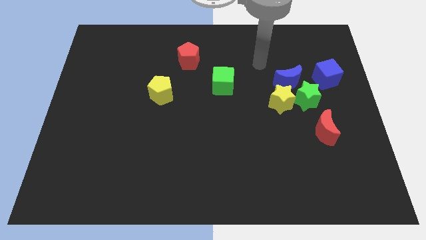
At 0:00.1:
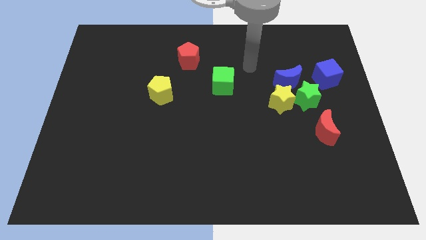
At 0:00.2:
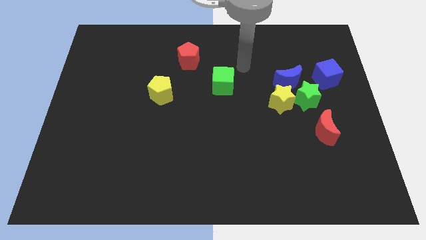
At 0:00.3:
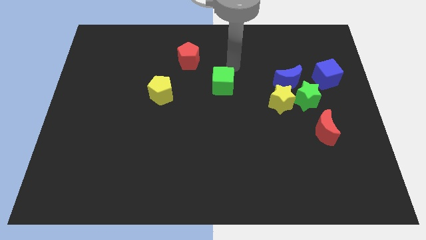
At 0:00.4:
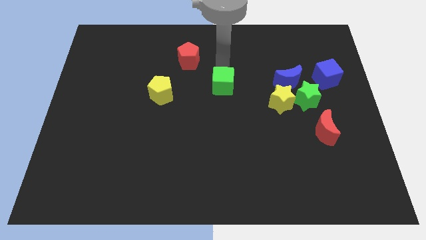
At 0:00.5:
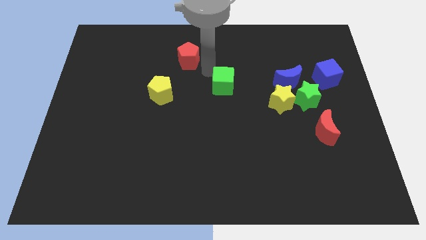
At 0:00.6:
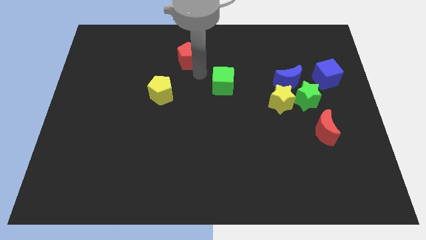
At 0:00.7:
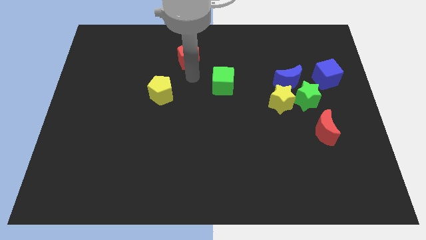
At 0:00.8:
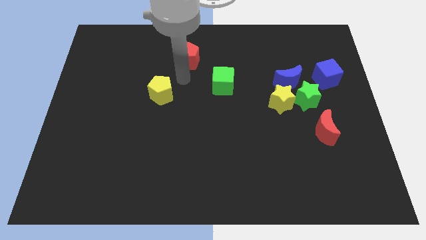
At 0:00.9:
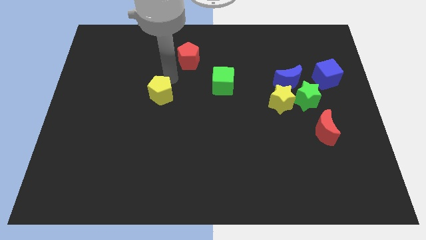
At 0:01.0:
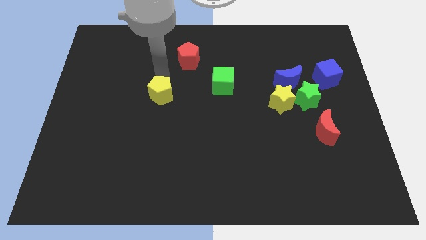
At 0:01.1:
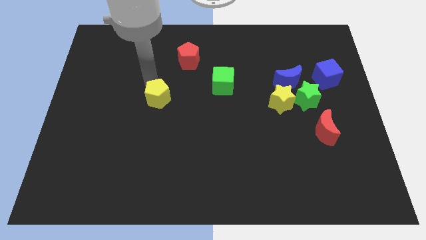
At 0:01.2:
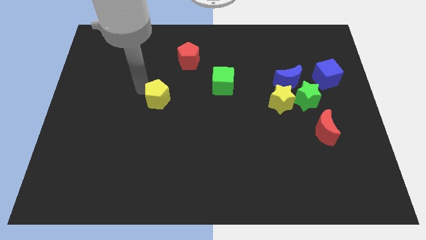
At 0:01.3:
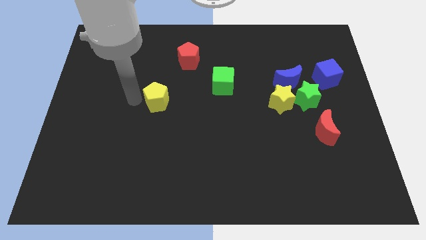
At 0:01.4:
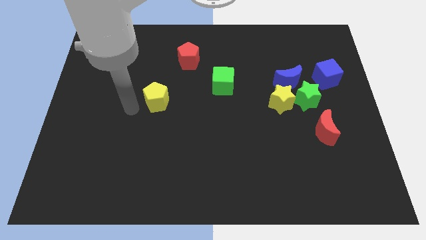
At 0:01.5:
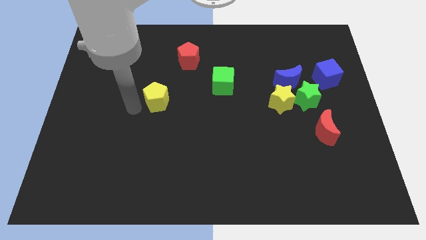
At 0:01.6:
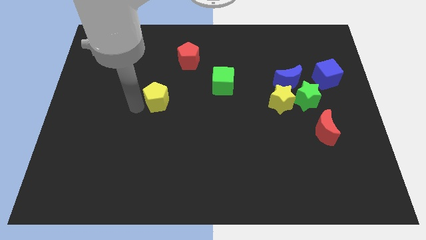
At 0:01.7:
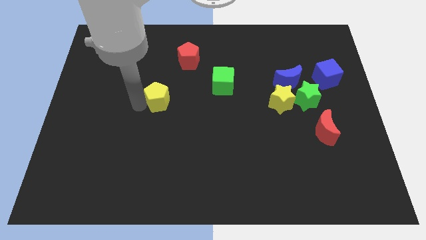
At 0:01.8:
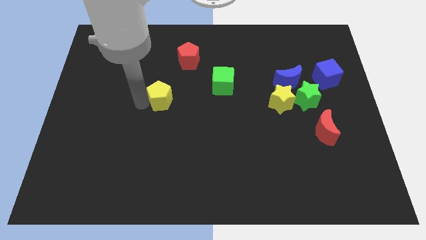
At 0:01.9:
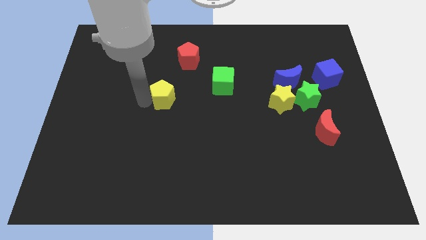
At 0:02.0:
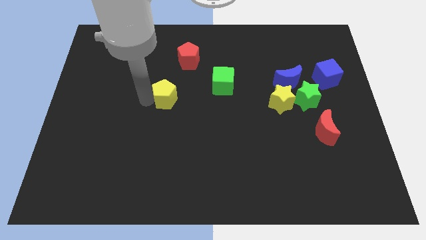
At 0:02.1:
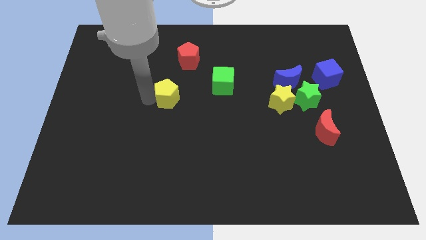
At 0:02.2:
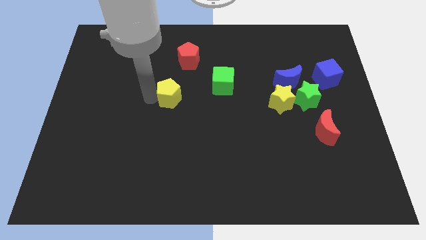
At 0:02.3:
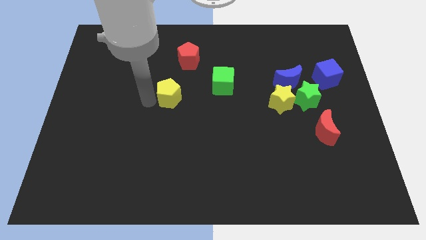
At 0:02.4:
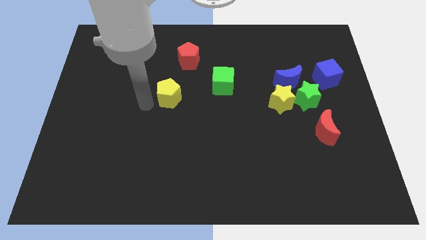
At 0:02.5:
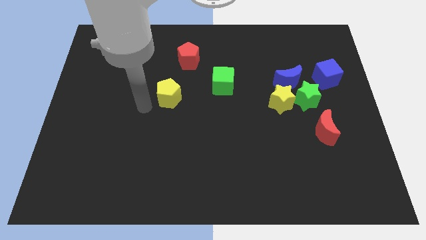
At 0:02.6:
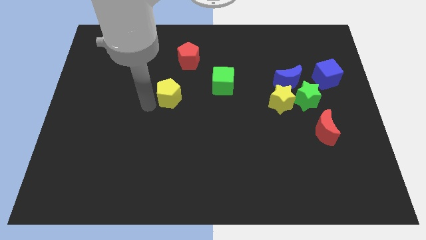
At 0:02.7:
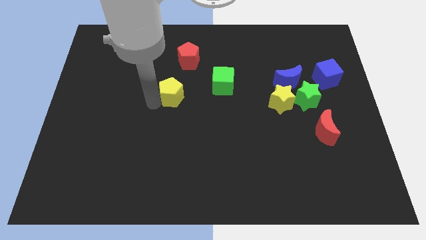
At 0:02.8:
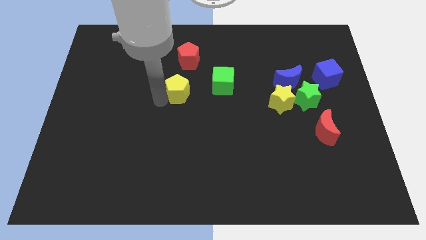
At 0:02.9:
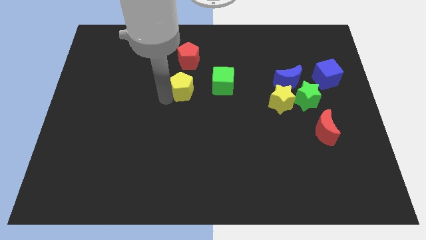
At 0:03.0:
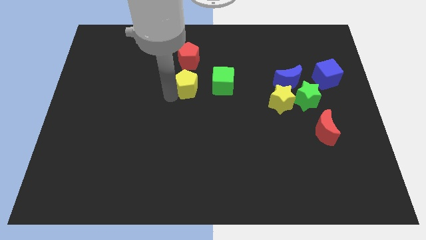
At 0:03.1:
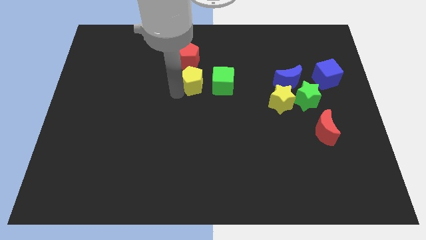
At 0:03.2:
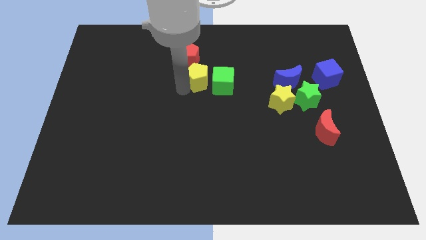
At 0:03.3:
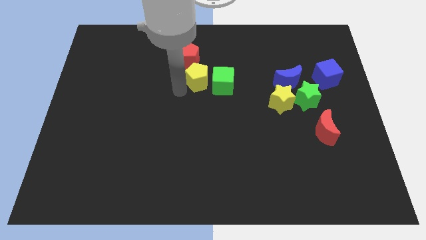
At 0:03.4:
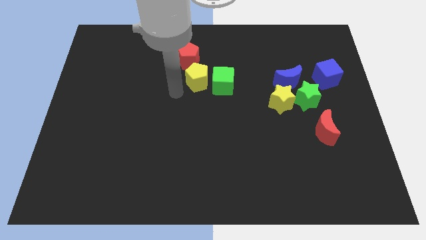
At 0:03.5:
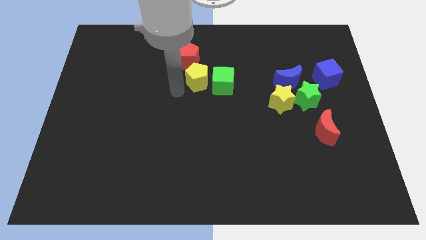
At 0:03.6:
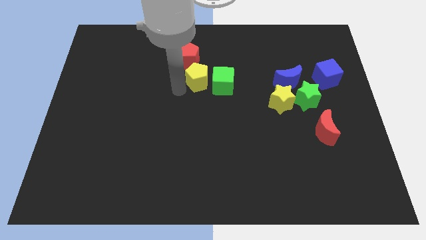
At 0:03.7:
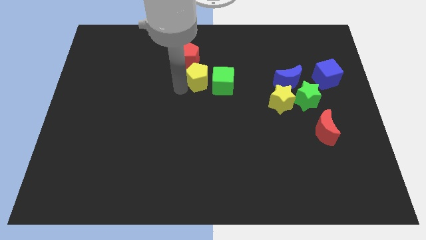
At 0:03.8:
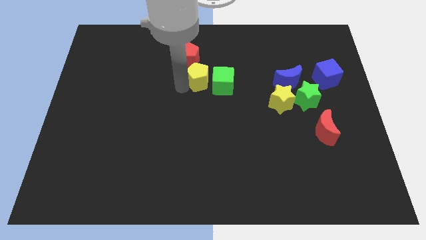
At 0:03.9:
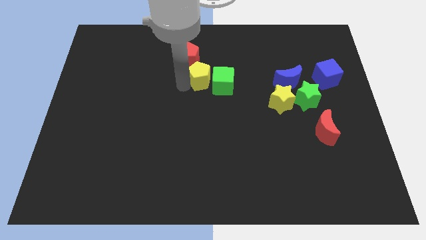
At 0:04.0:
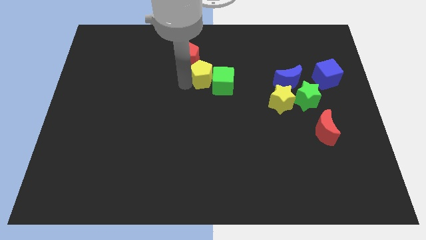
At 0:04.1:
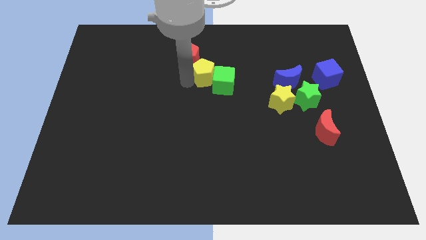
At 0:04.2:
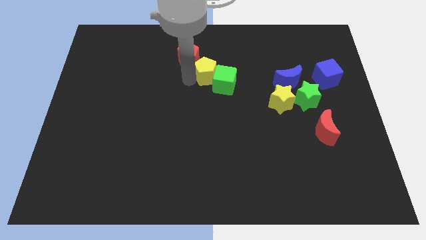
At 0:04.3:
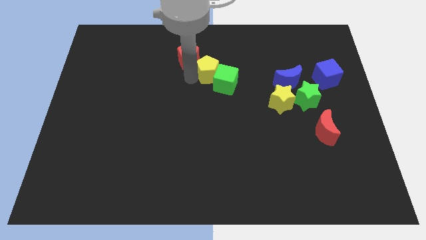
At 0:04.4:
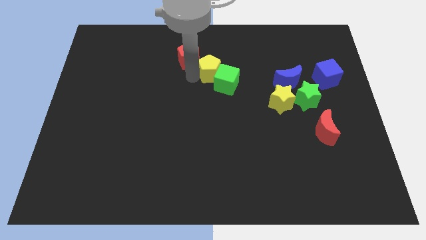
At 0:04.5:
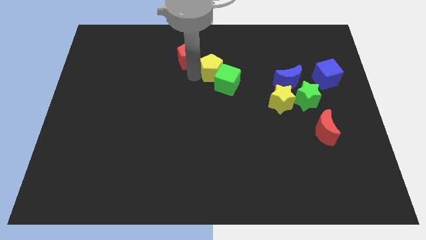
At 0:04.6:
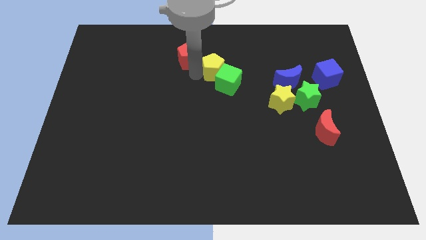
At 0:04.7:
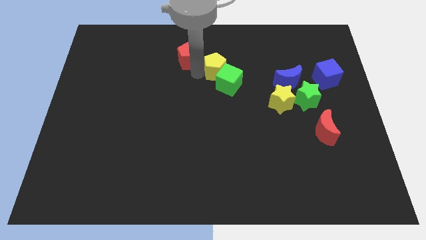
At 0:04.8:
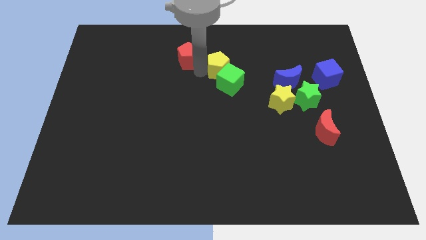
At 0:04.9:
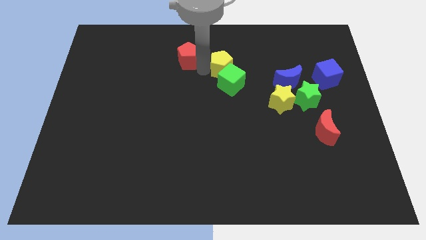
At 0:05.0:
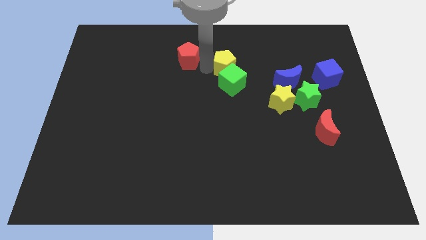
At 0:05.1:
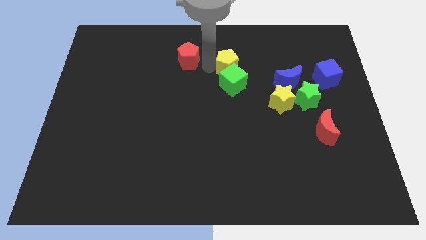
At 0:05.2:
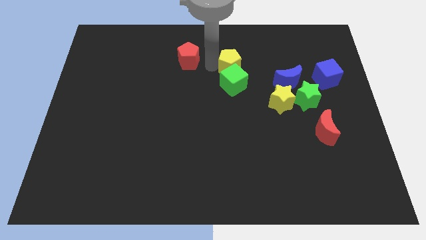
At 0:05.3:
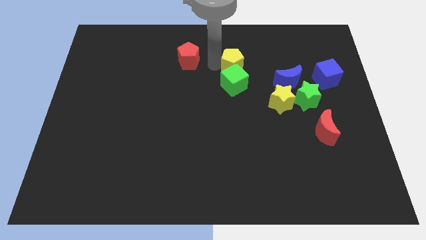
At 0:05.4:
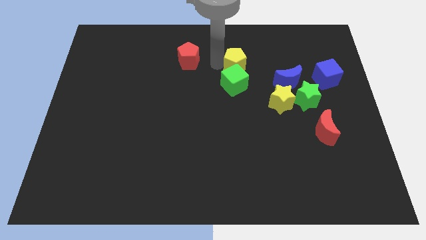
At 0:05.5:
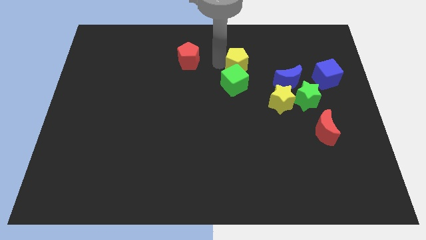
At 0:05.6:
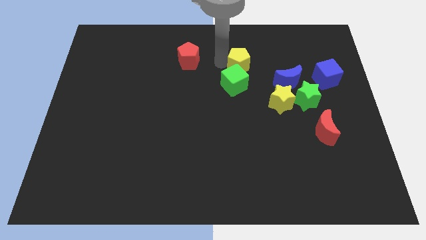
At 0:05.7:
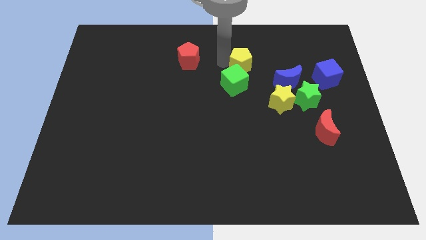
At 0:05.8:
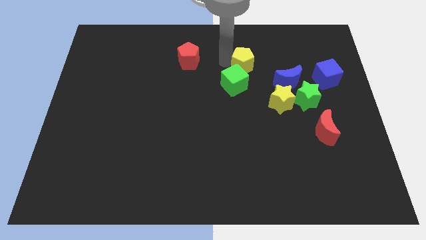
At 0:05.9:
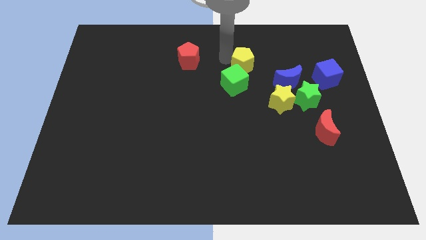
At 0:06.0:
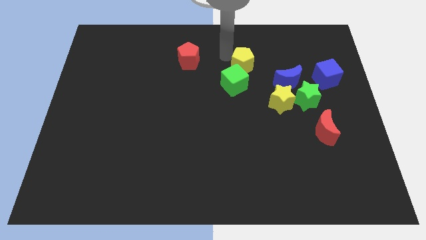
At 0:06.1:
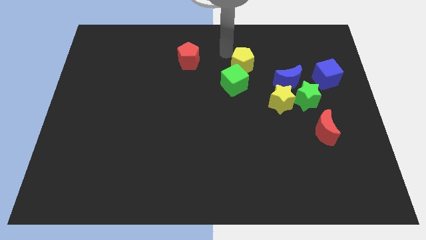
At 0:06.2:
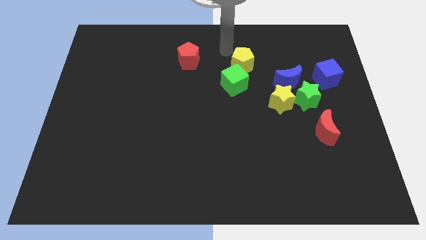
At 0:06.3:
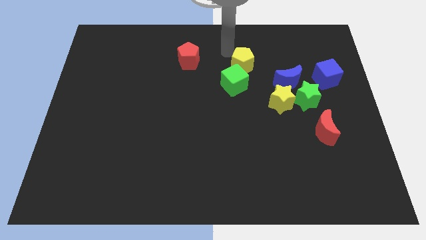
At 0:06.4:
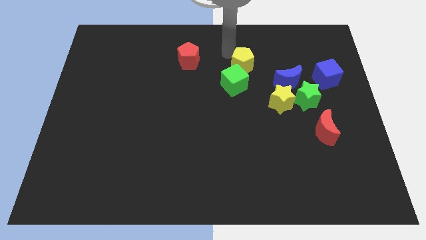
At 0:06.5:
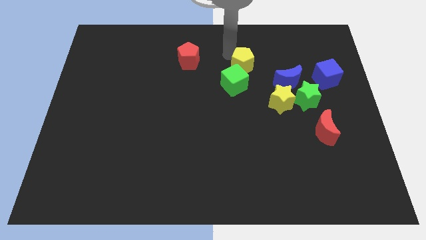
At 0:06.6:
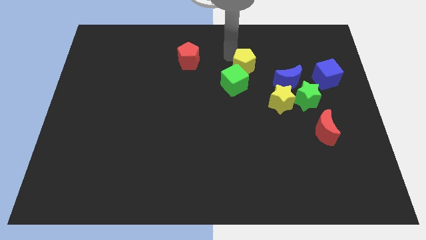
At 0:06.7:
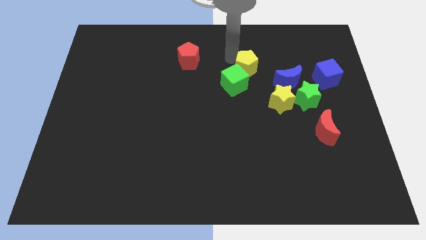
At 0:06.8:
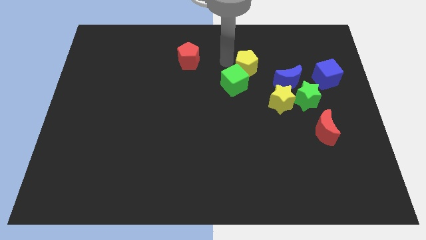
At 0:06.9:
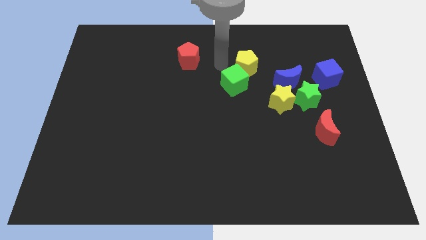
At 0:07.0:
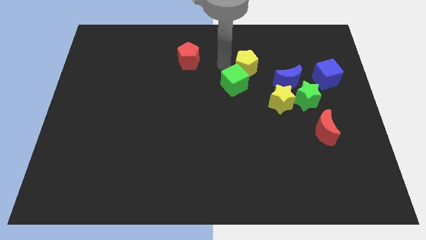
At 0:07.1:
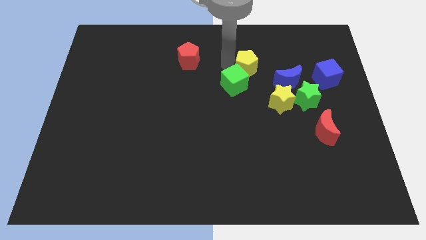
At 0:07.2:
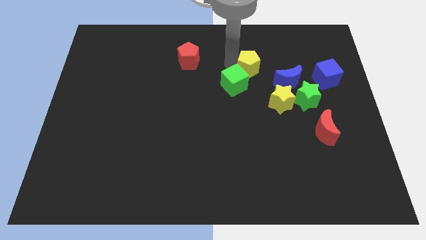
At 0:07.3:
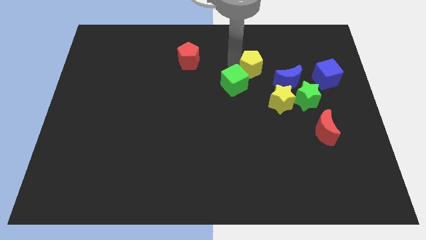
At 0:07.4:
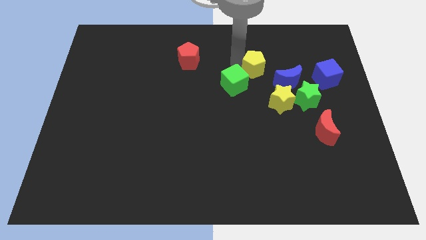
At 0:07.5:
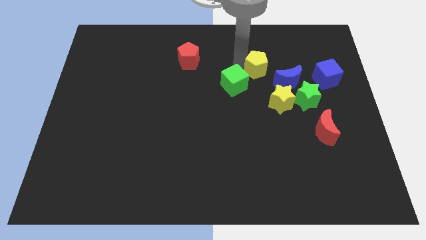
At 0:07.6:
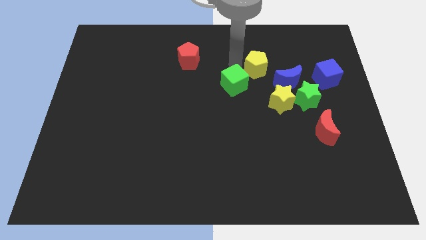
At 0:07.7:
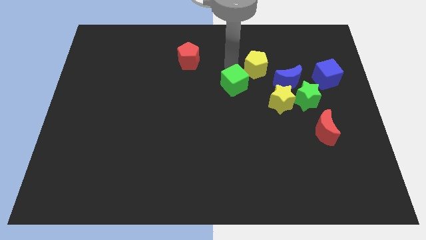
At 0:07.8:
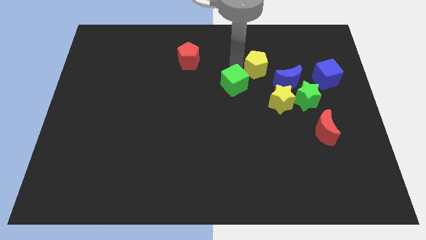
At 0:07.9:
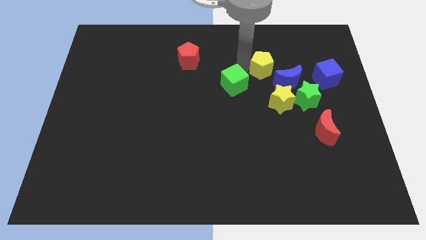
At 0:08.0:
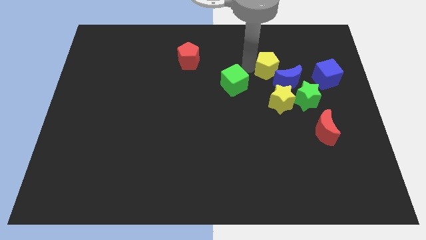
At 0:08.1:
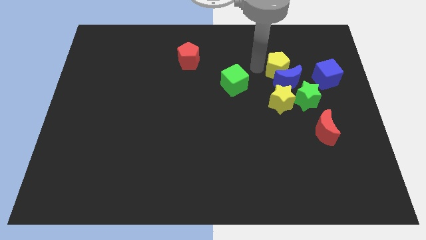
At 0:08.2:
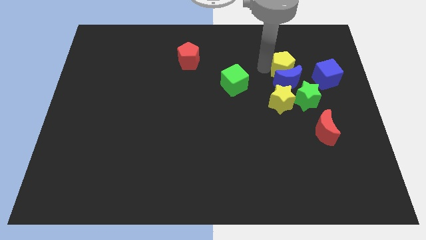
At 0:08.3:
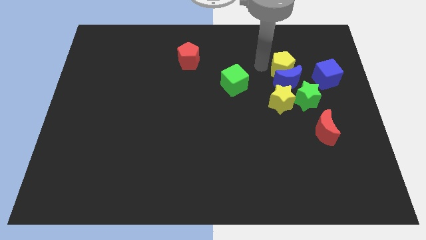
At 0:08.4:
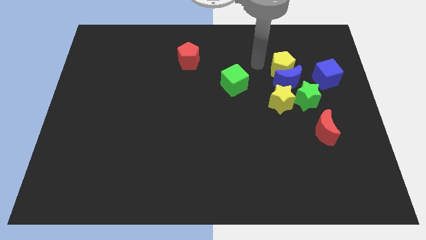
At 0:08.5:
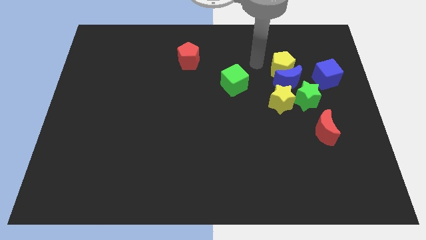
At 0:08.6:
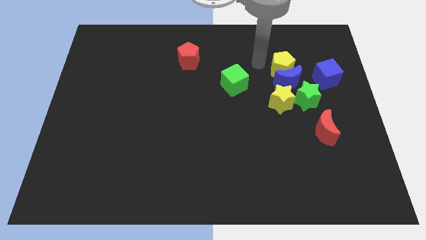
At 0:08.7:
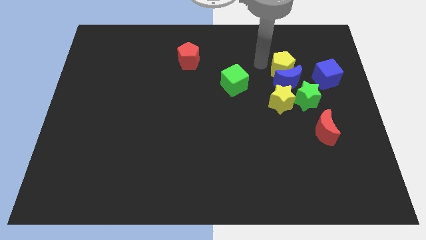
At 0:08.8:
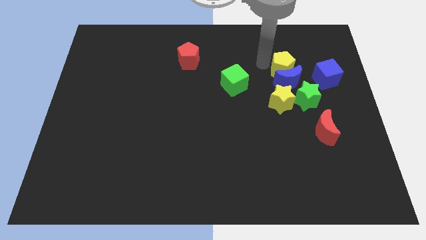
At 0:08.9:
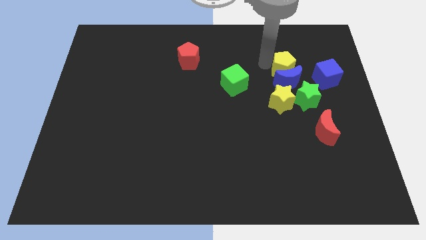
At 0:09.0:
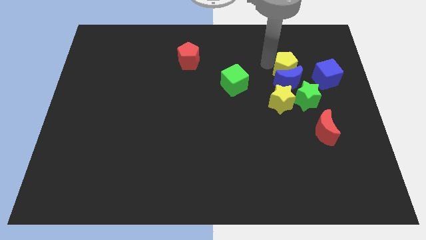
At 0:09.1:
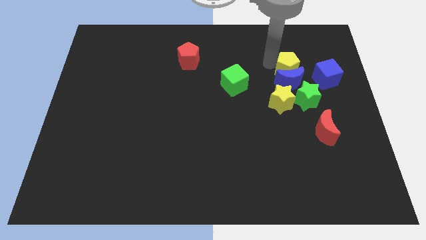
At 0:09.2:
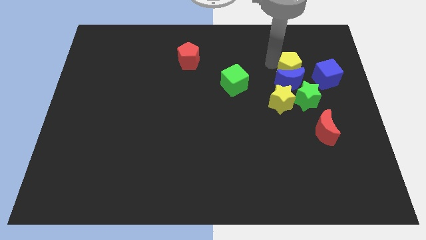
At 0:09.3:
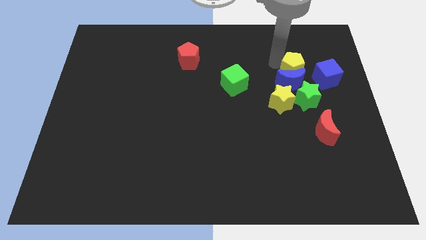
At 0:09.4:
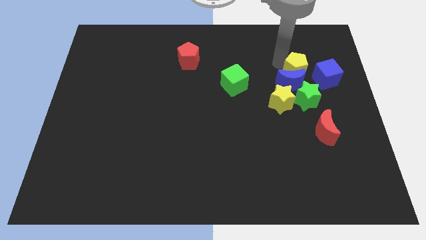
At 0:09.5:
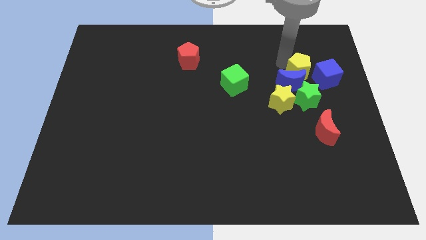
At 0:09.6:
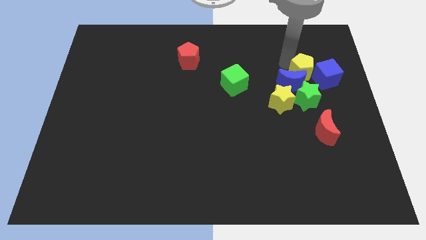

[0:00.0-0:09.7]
push the yellow pentagon to the blue cube
